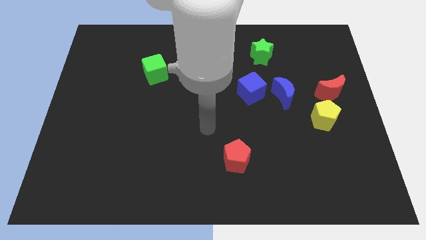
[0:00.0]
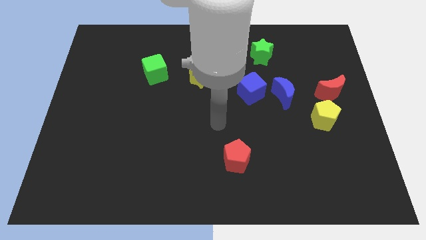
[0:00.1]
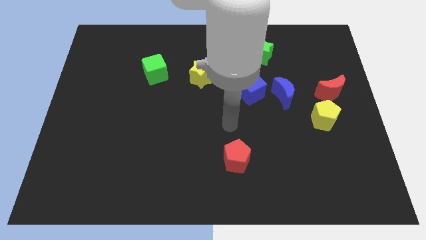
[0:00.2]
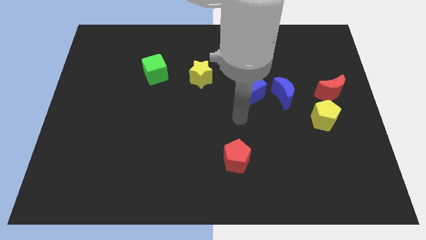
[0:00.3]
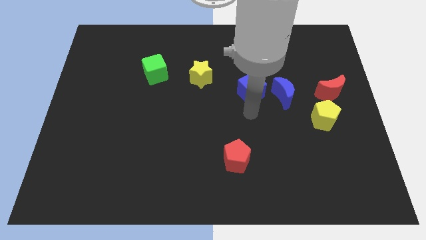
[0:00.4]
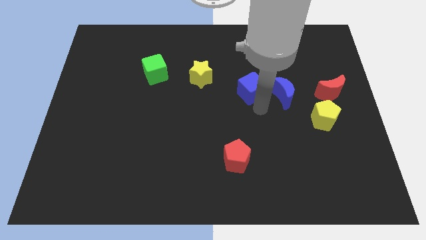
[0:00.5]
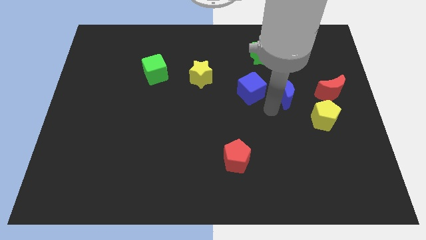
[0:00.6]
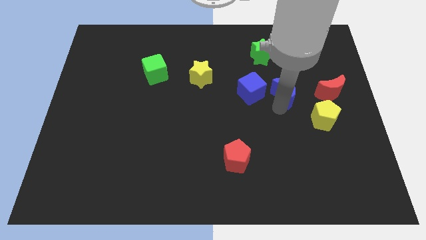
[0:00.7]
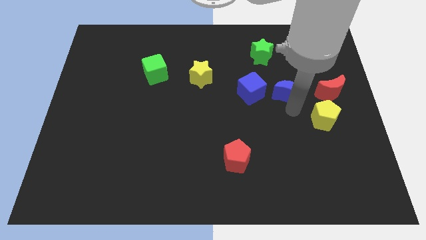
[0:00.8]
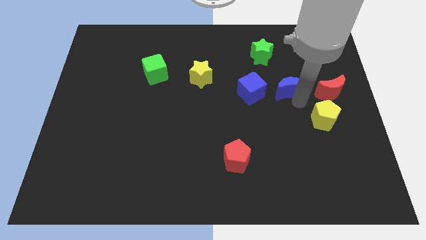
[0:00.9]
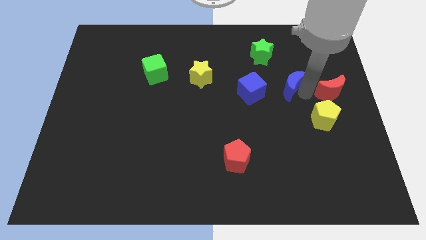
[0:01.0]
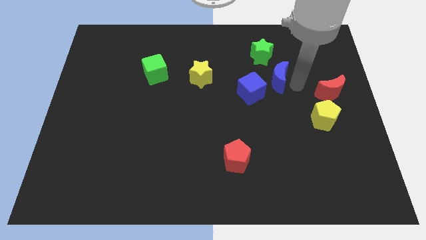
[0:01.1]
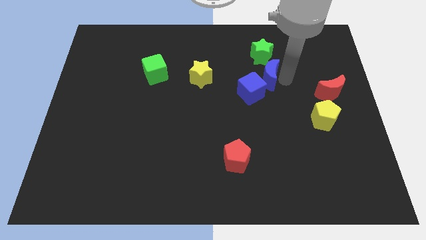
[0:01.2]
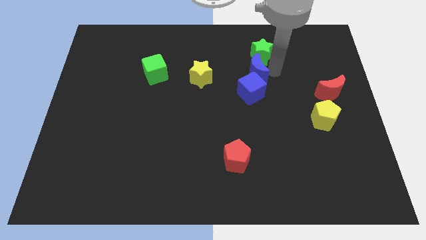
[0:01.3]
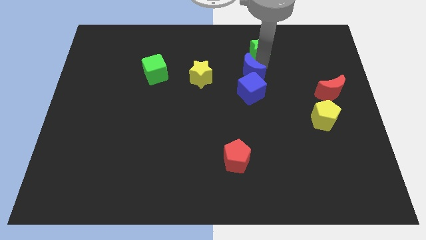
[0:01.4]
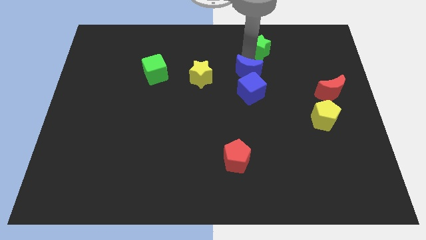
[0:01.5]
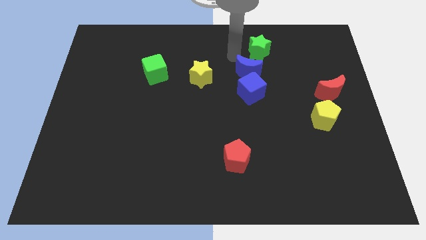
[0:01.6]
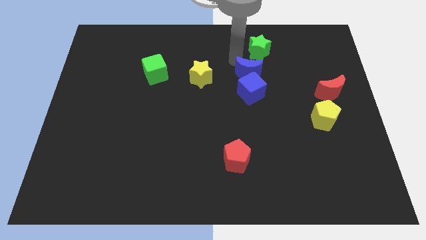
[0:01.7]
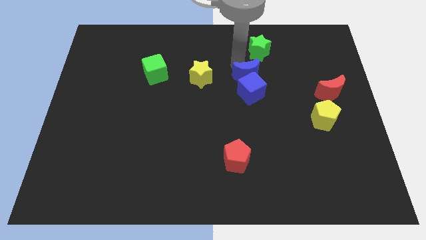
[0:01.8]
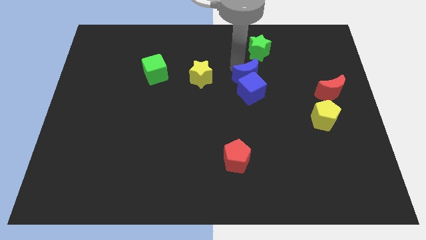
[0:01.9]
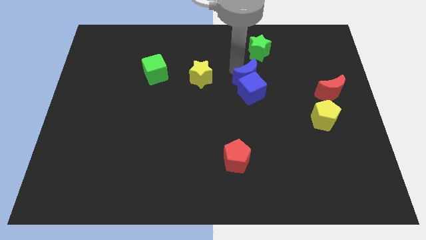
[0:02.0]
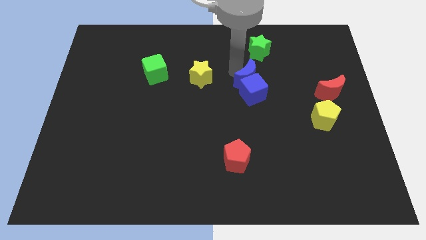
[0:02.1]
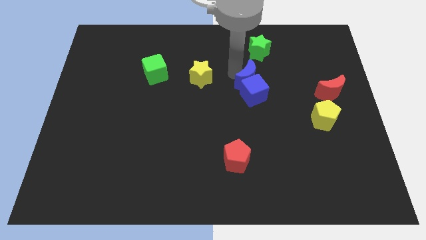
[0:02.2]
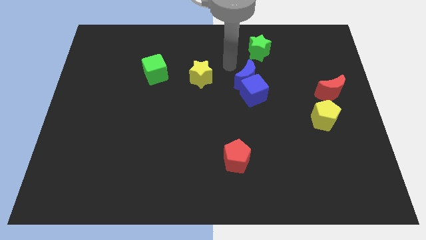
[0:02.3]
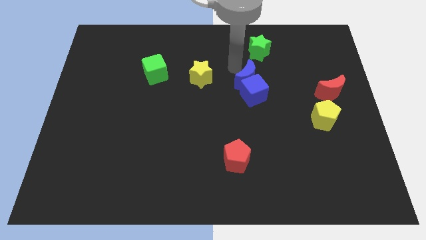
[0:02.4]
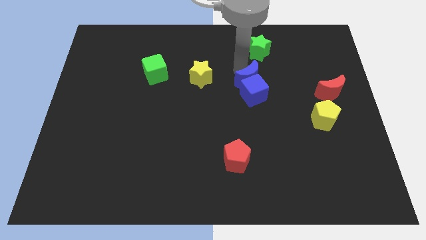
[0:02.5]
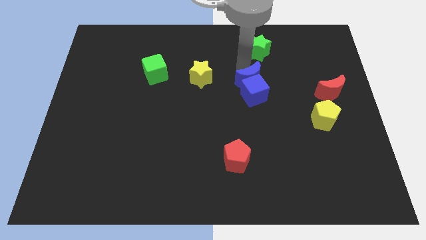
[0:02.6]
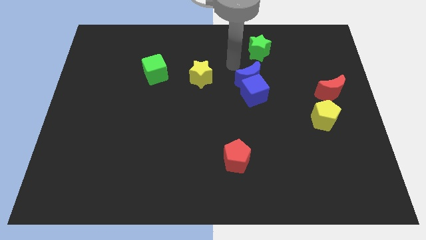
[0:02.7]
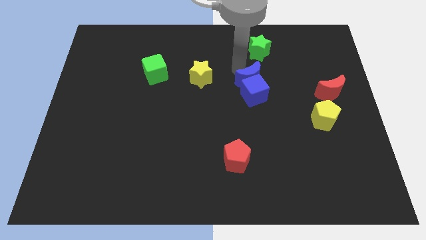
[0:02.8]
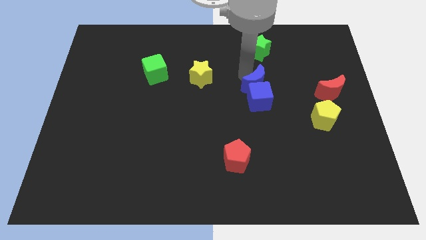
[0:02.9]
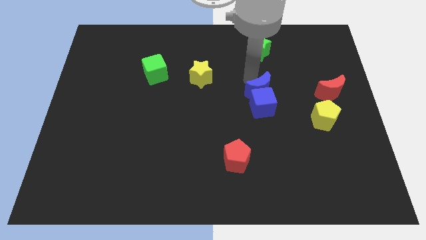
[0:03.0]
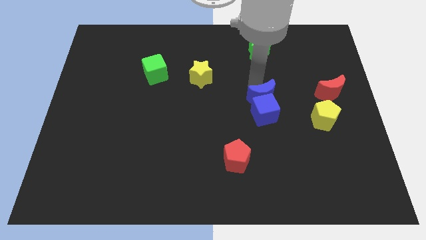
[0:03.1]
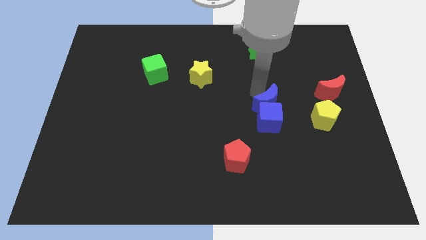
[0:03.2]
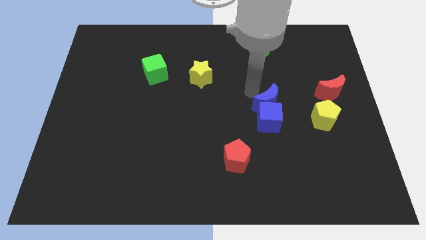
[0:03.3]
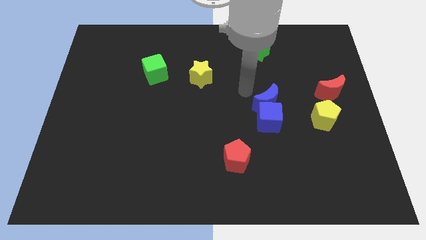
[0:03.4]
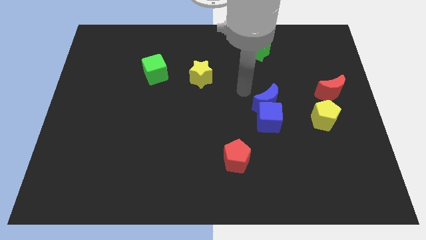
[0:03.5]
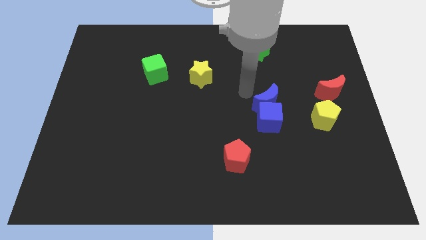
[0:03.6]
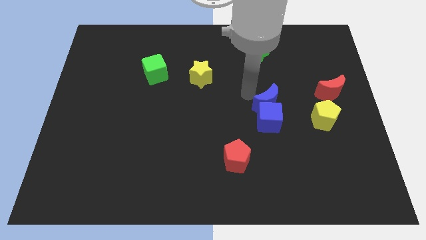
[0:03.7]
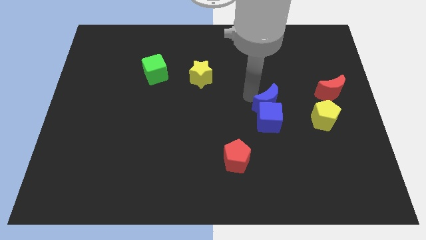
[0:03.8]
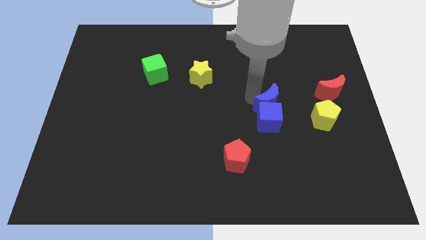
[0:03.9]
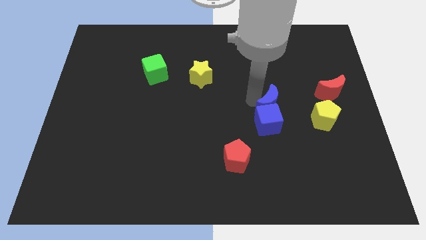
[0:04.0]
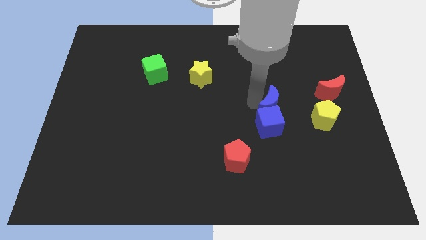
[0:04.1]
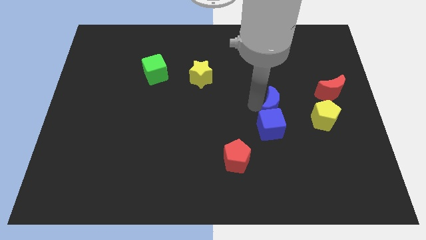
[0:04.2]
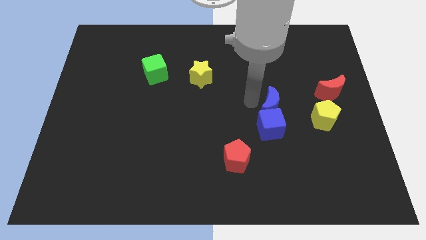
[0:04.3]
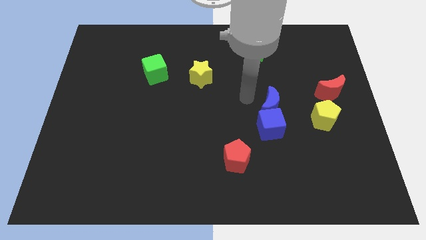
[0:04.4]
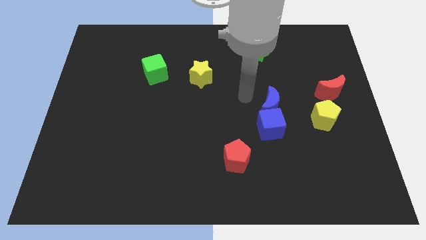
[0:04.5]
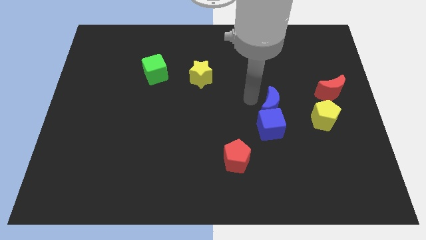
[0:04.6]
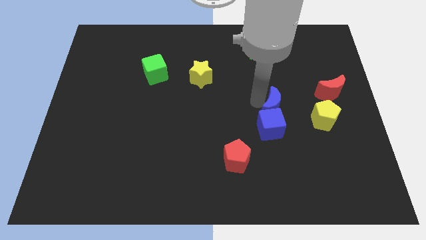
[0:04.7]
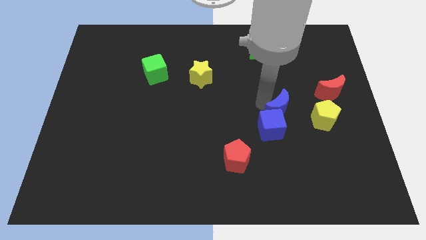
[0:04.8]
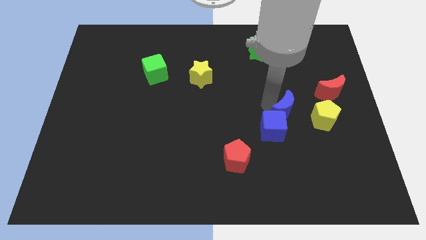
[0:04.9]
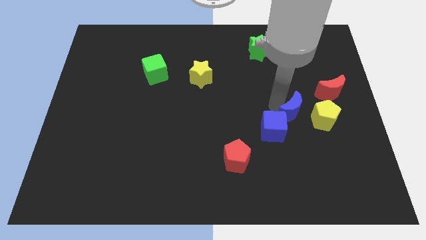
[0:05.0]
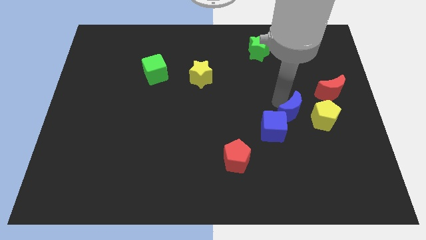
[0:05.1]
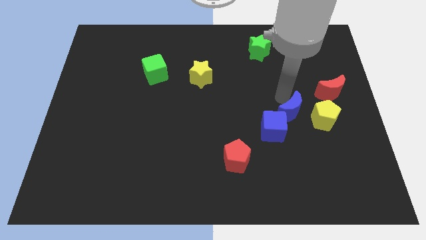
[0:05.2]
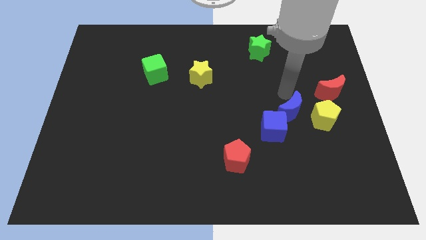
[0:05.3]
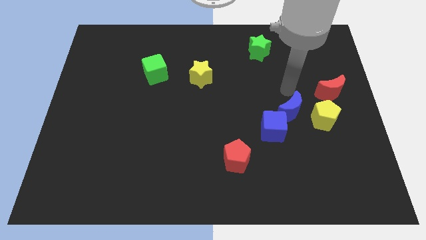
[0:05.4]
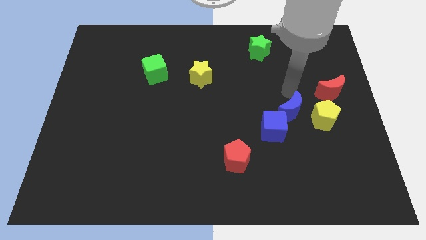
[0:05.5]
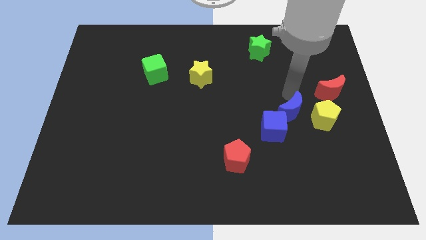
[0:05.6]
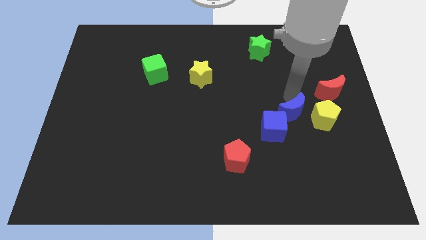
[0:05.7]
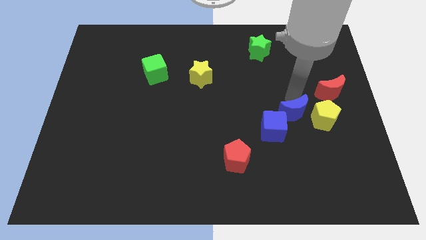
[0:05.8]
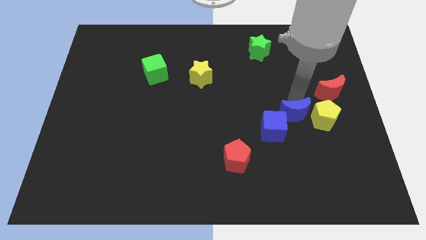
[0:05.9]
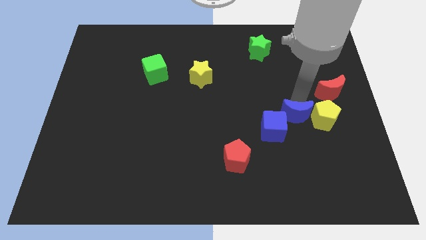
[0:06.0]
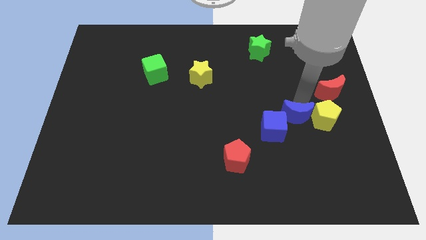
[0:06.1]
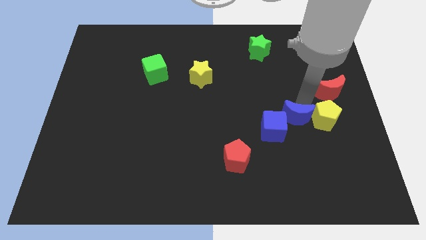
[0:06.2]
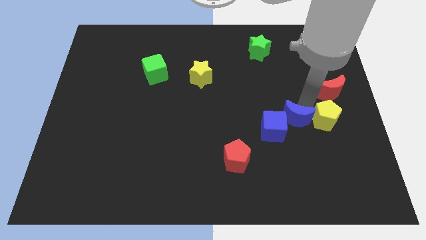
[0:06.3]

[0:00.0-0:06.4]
slightly move the blue moon down

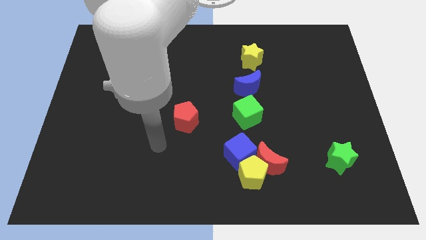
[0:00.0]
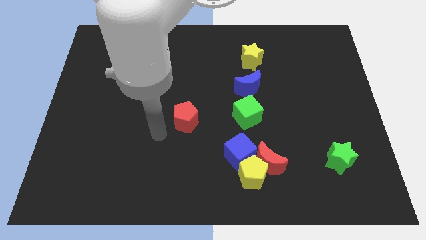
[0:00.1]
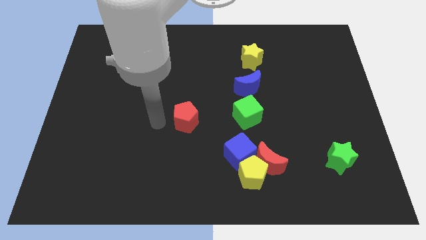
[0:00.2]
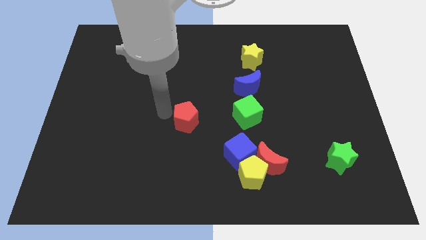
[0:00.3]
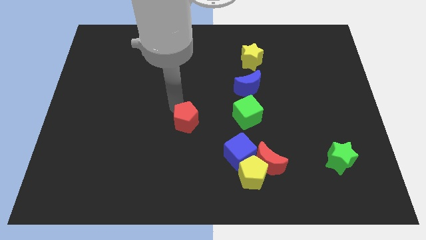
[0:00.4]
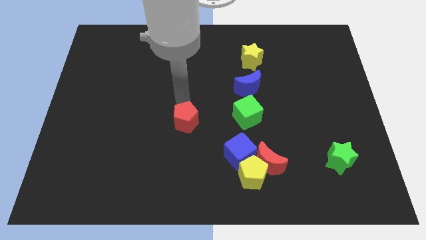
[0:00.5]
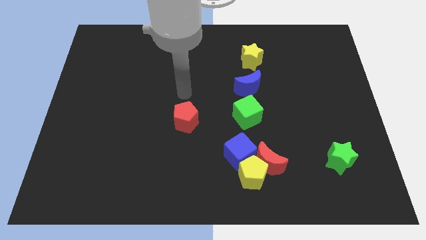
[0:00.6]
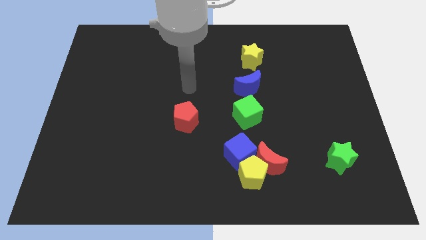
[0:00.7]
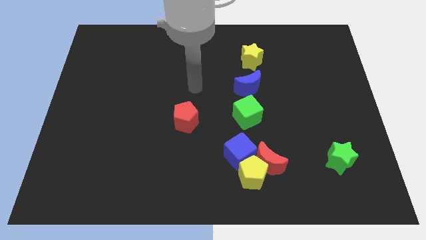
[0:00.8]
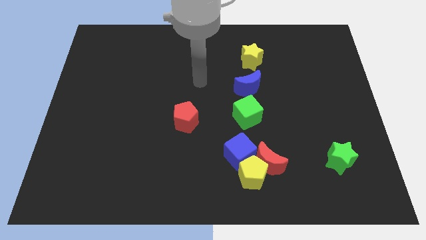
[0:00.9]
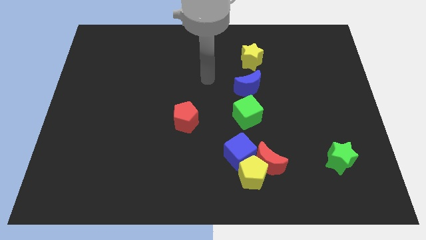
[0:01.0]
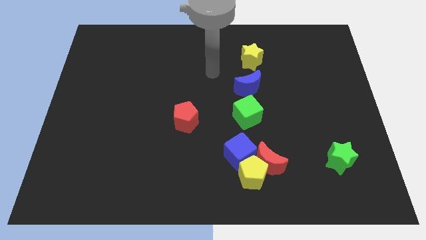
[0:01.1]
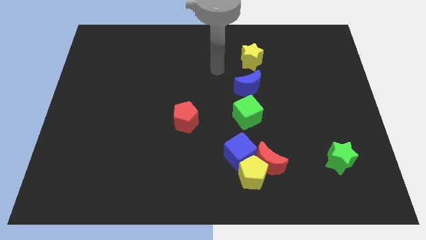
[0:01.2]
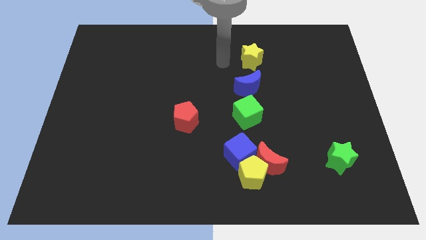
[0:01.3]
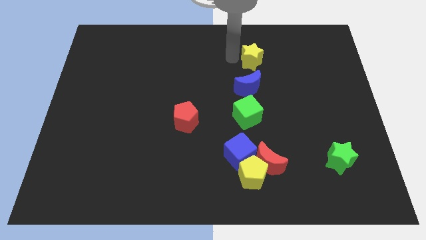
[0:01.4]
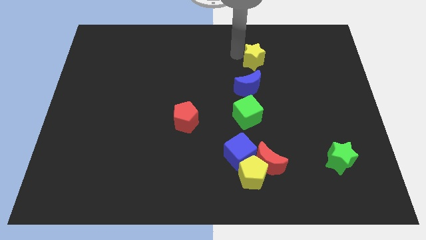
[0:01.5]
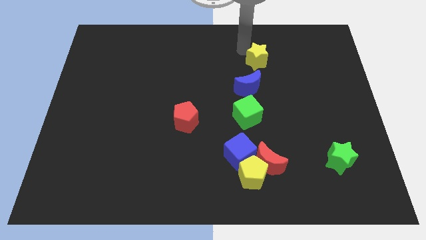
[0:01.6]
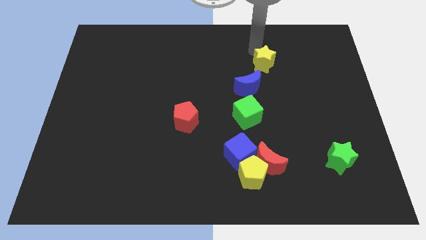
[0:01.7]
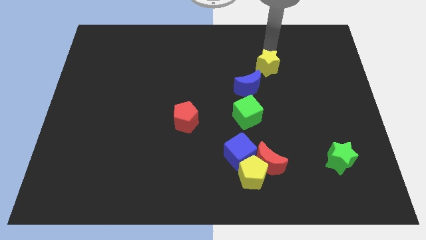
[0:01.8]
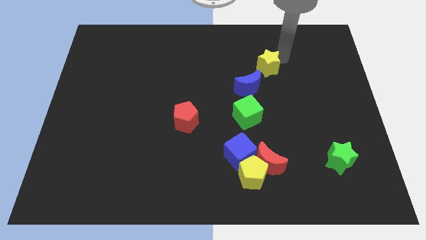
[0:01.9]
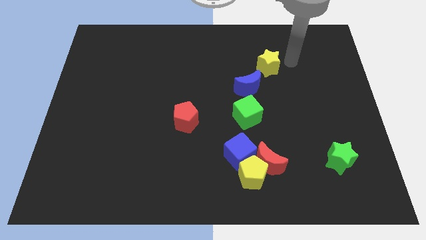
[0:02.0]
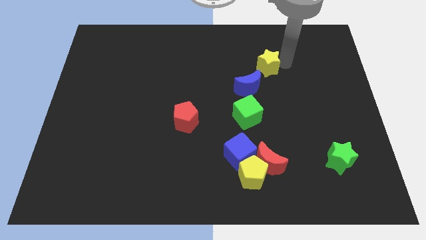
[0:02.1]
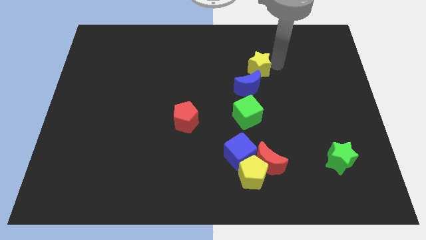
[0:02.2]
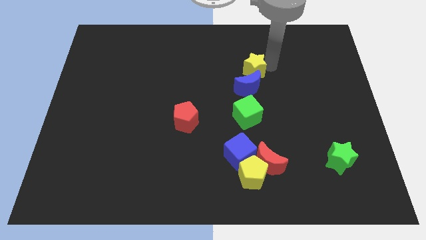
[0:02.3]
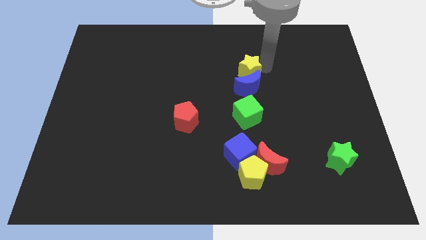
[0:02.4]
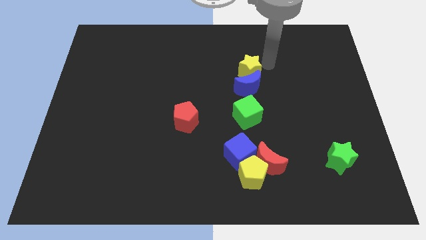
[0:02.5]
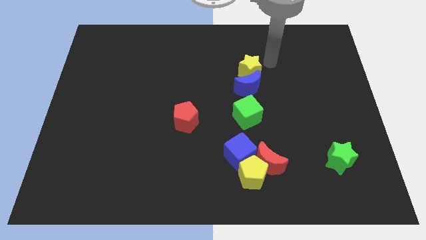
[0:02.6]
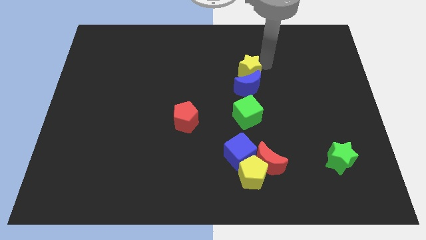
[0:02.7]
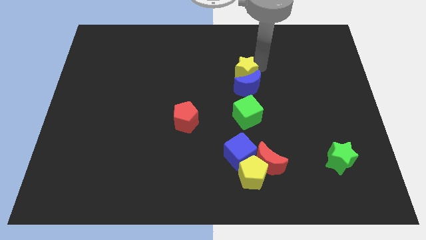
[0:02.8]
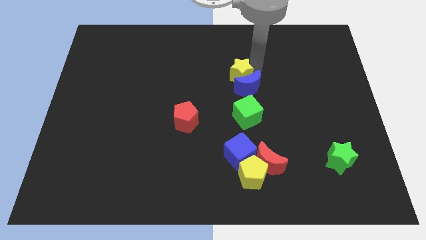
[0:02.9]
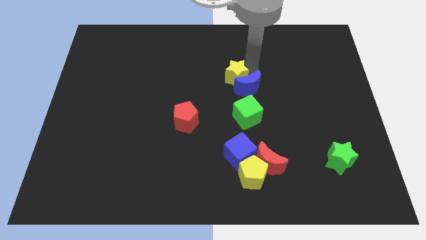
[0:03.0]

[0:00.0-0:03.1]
move the yellow star a little bit down and then to the left
